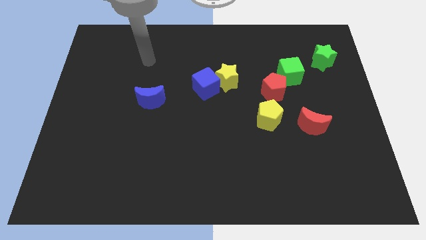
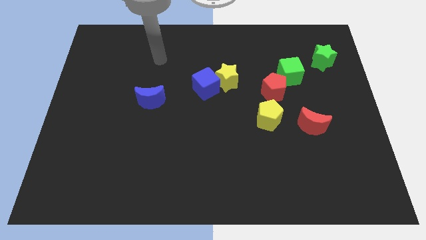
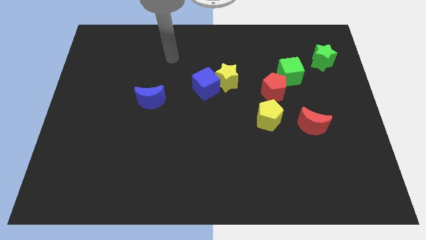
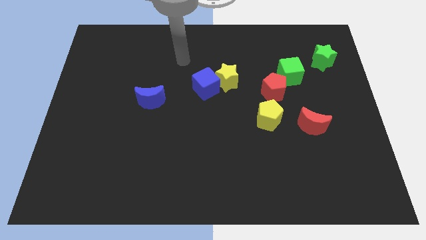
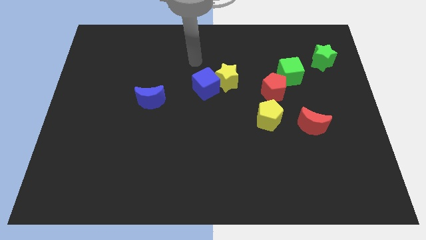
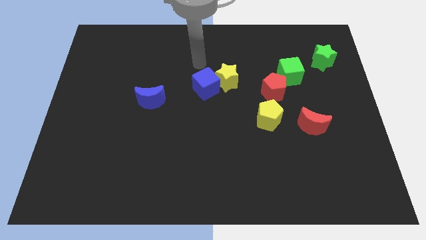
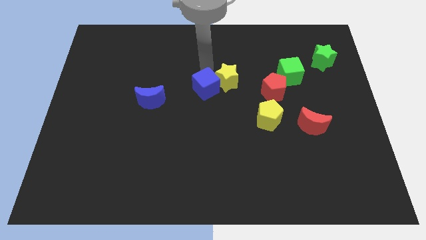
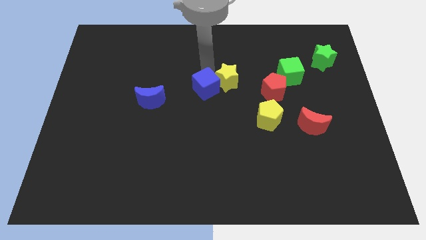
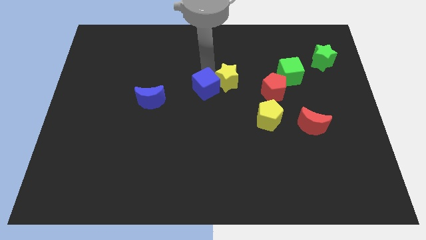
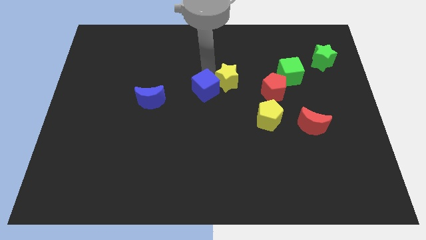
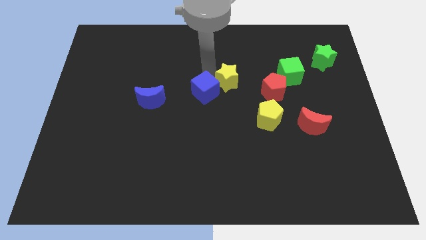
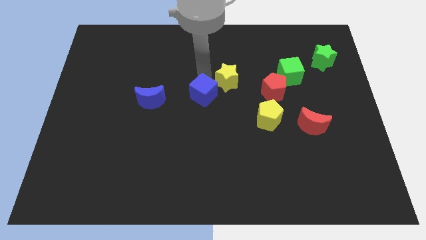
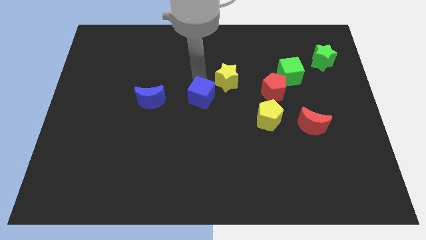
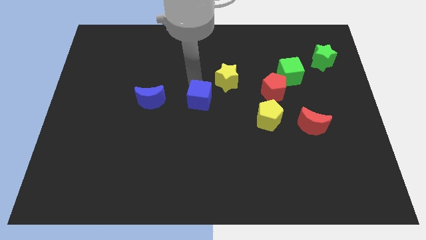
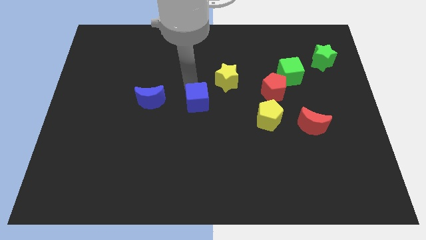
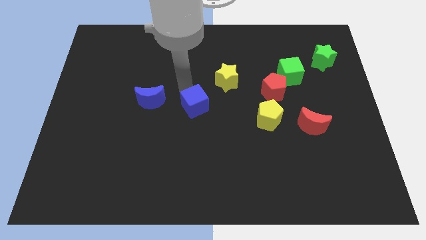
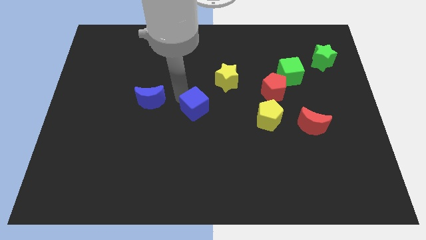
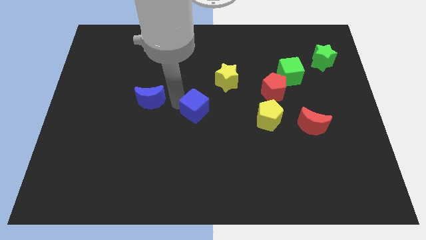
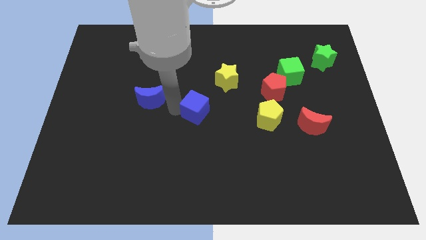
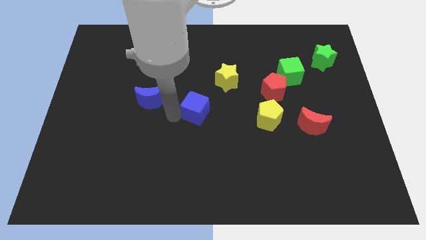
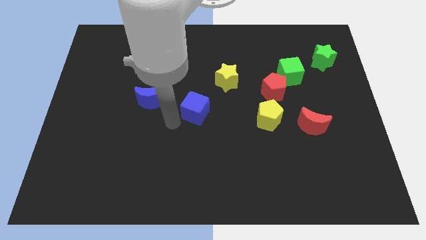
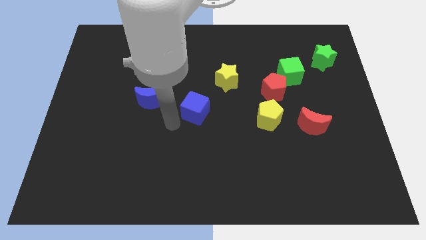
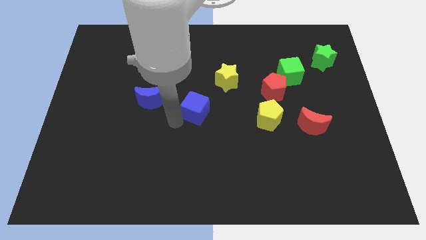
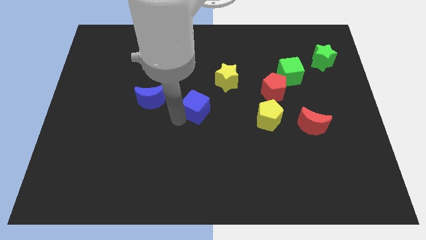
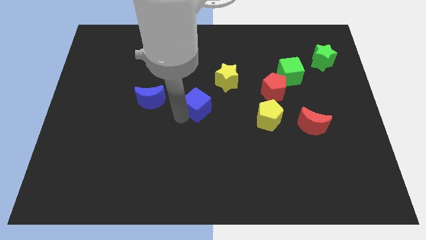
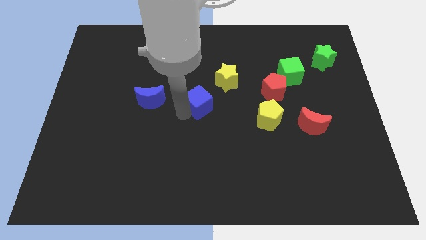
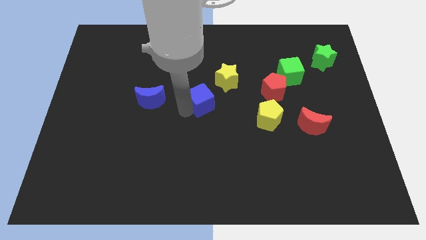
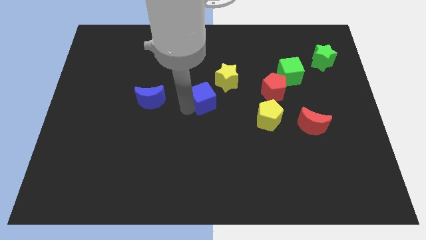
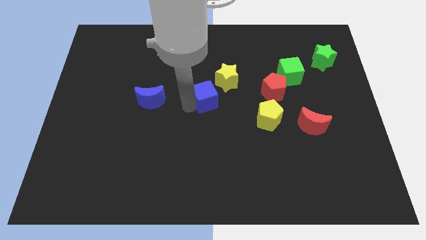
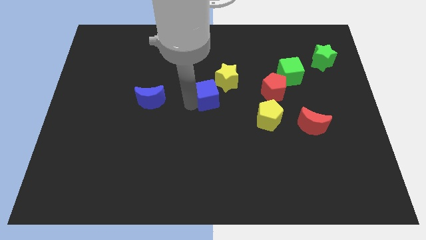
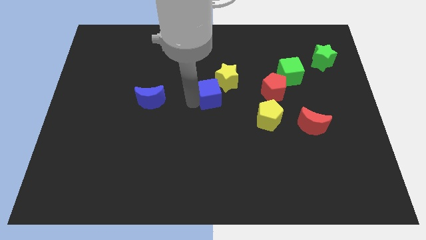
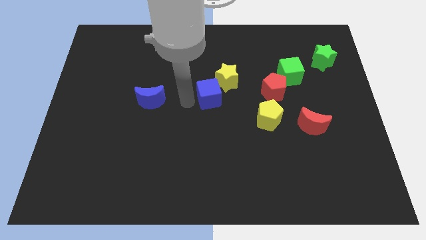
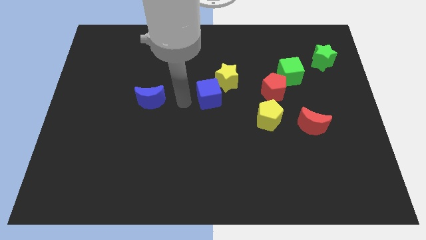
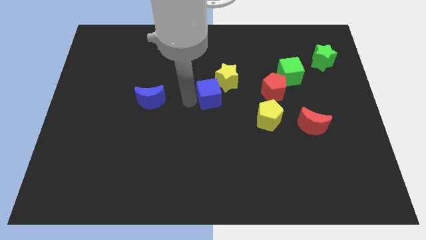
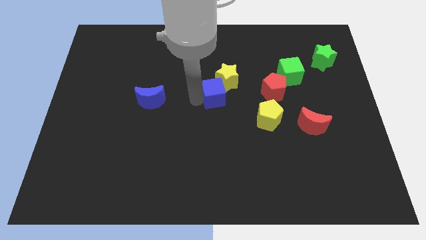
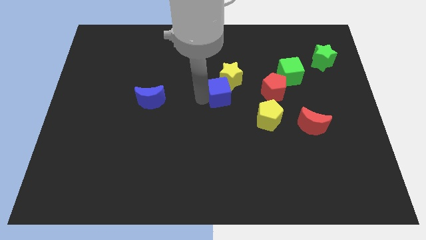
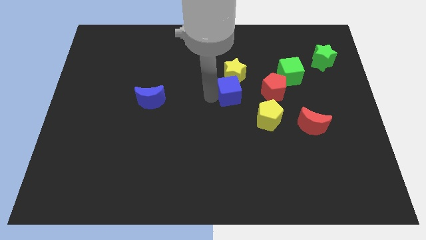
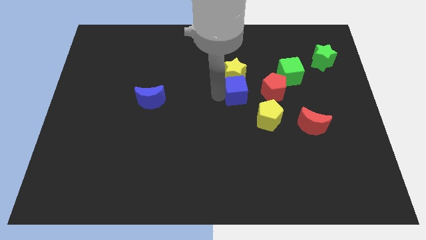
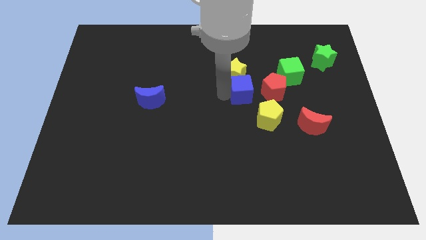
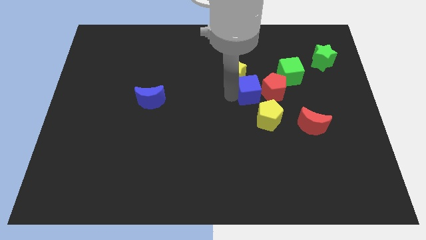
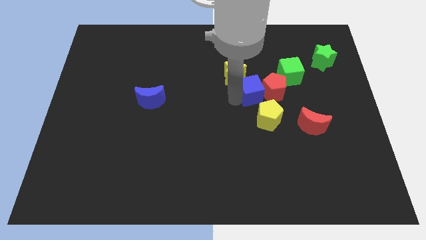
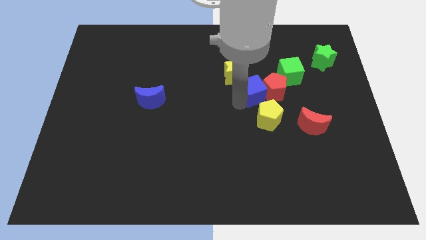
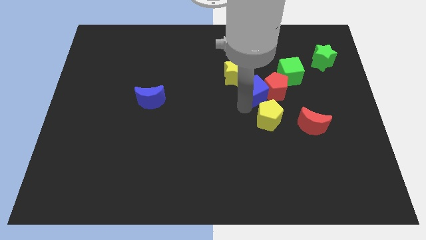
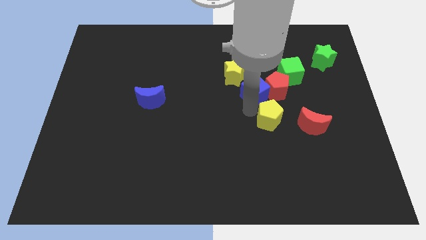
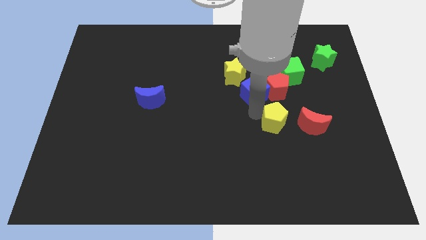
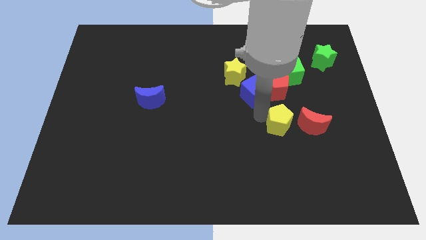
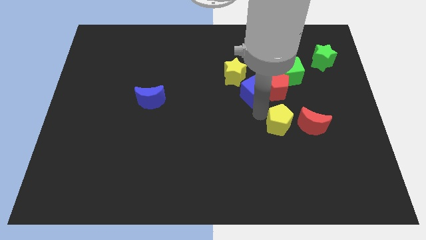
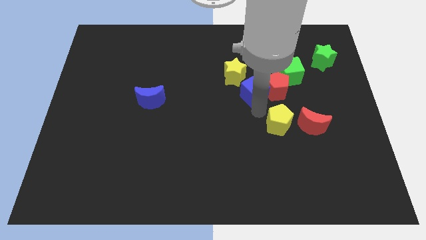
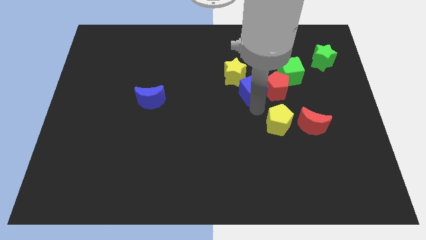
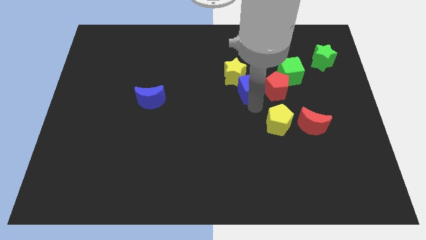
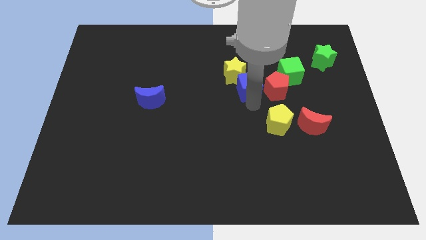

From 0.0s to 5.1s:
move the blue cube to the left side of the green cube

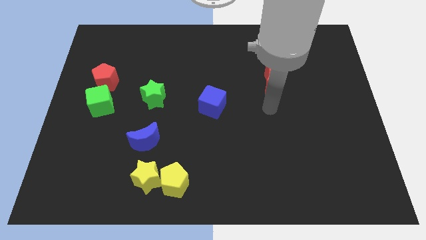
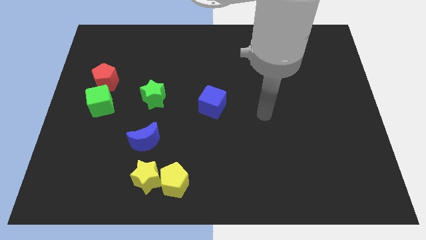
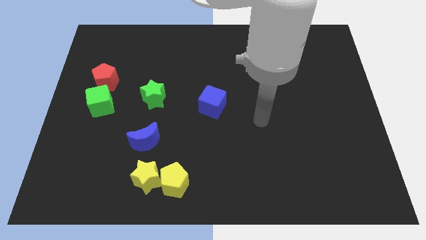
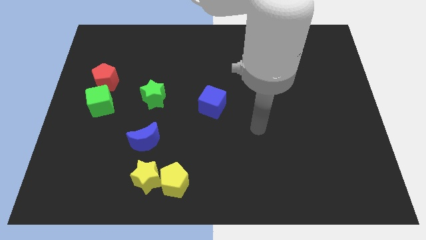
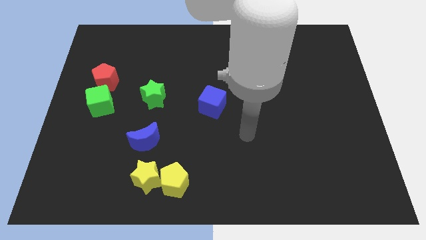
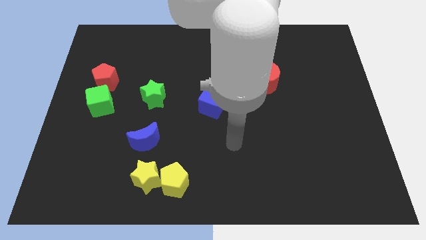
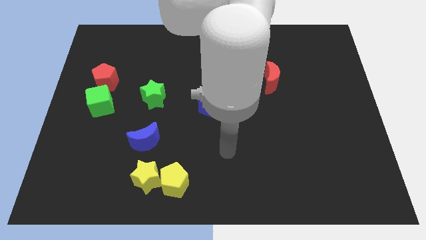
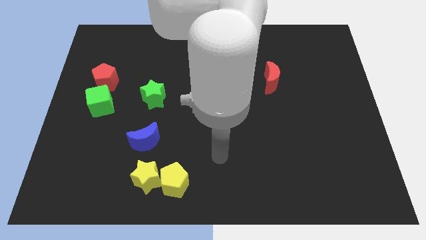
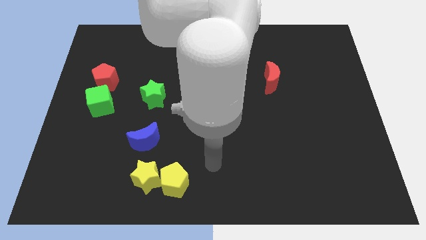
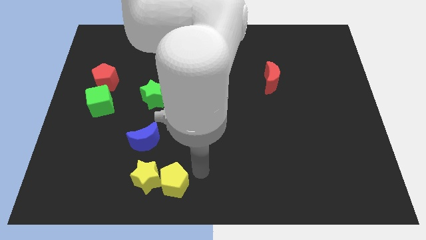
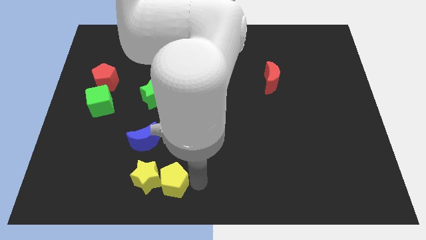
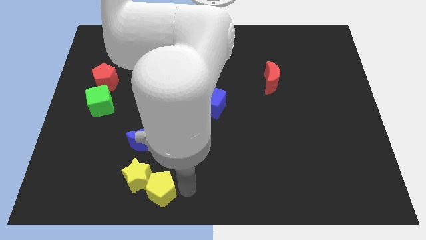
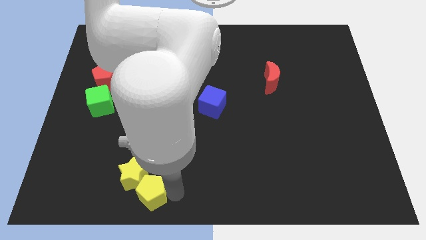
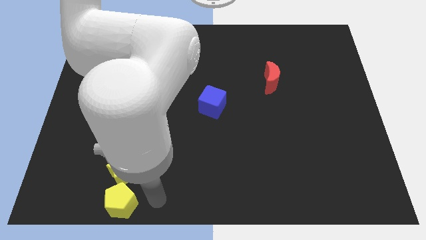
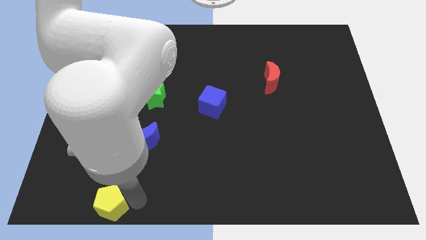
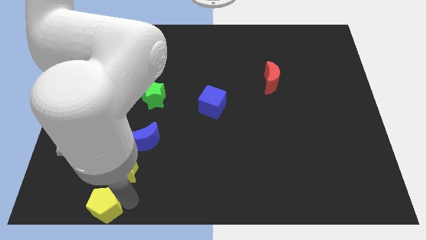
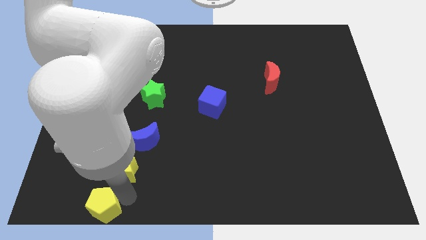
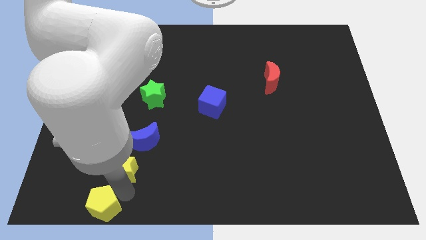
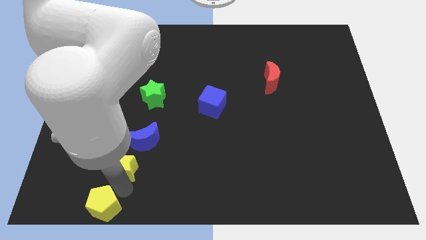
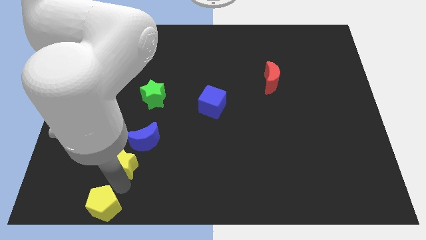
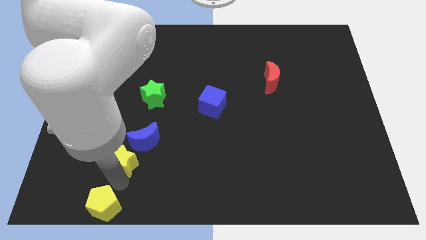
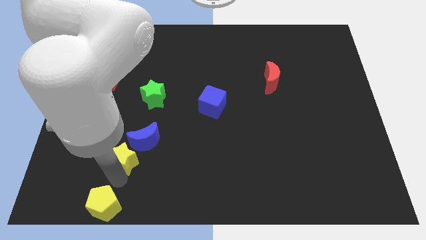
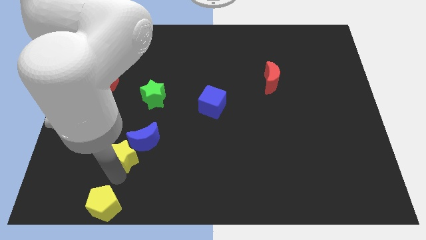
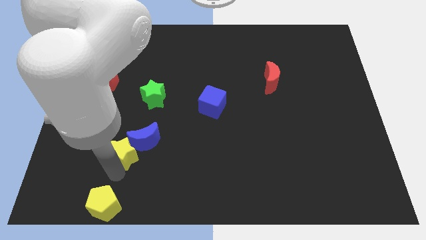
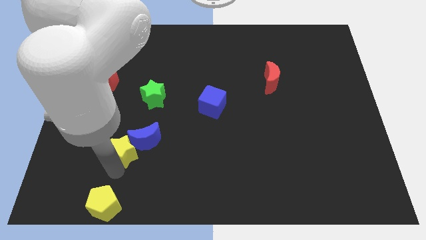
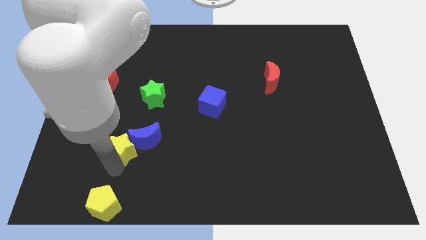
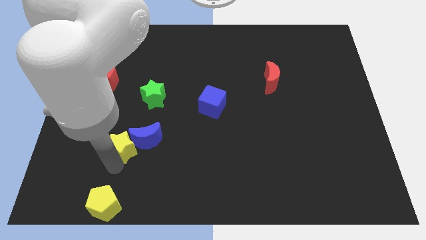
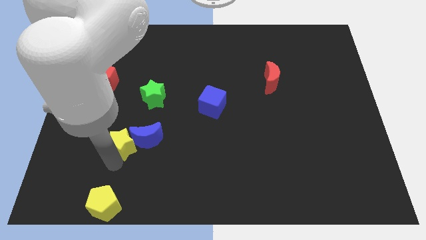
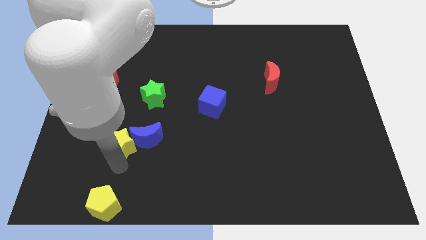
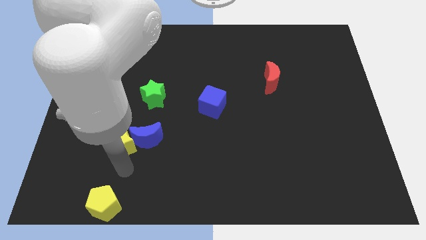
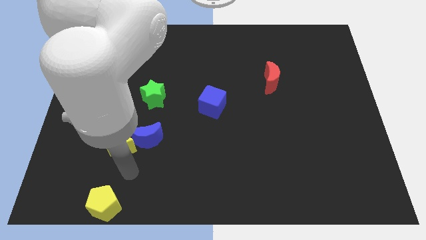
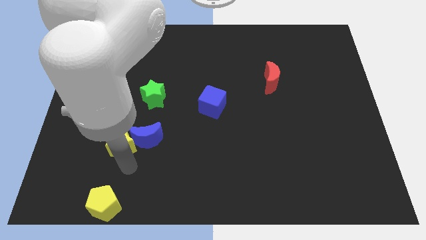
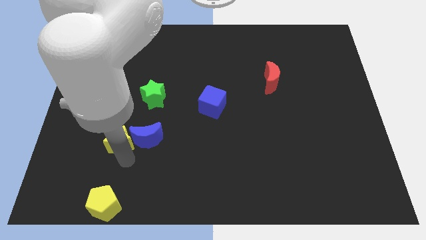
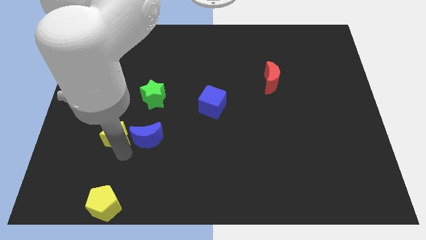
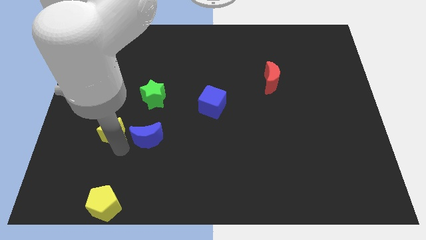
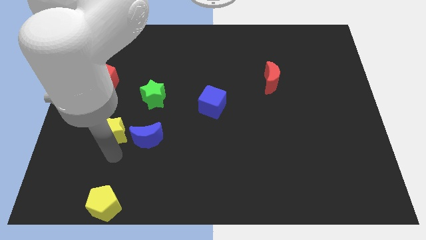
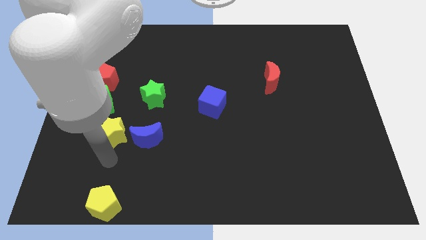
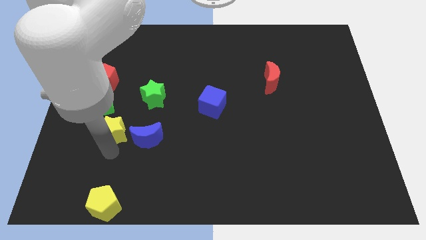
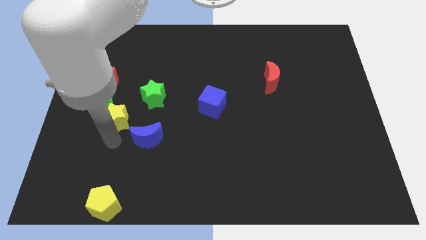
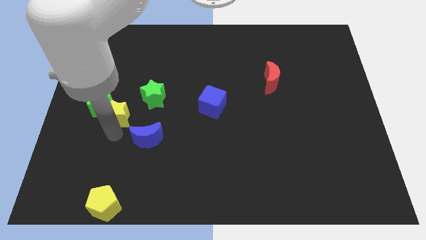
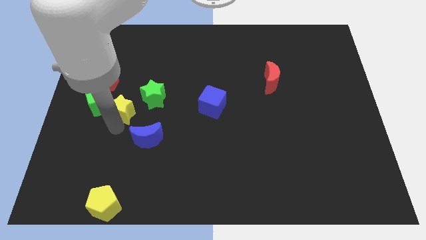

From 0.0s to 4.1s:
push the yellow star to the bottom right of the red pentagon
